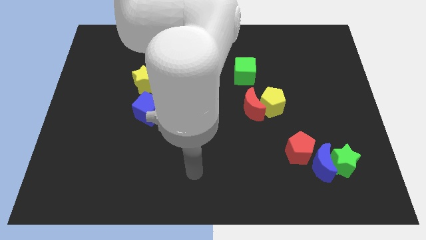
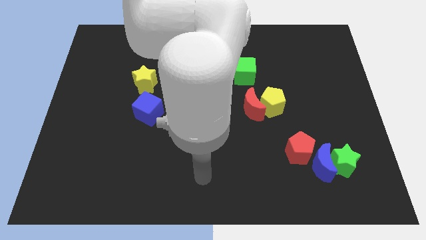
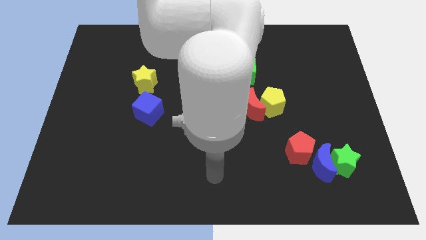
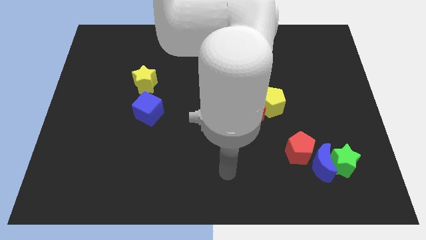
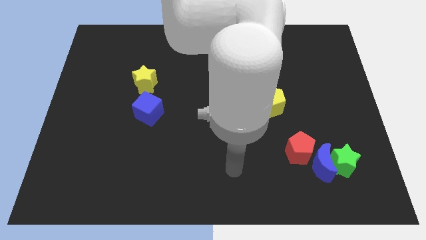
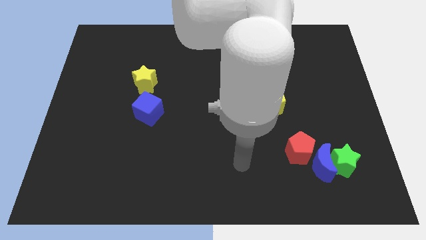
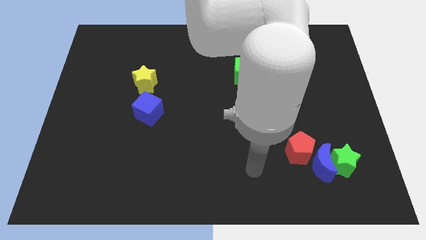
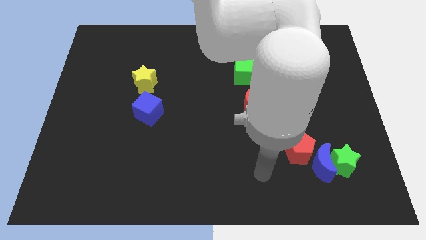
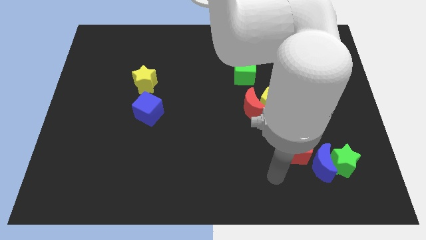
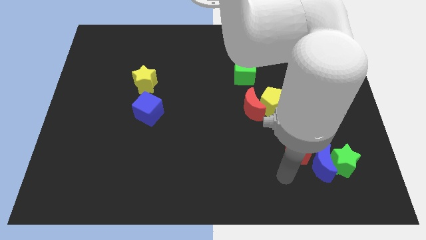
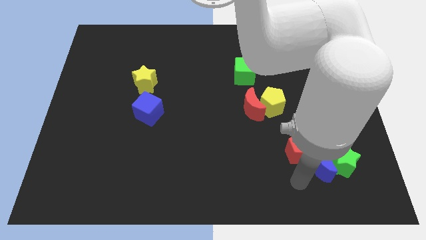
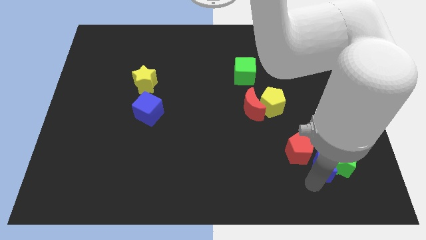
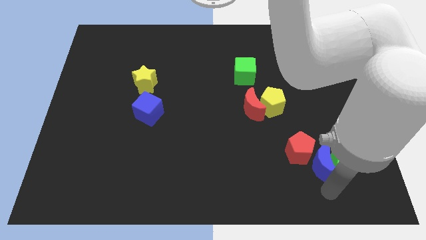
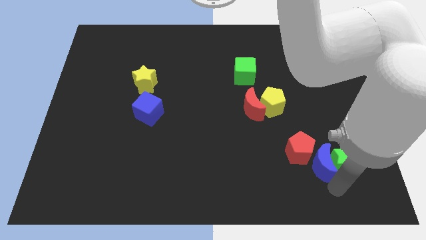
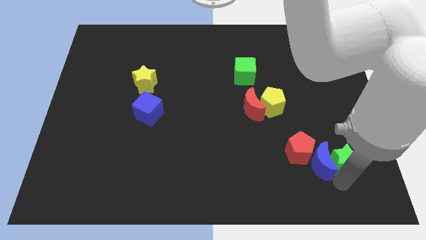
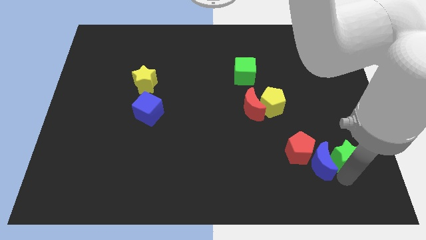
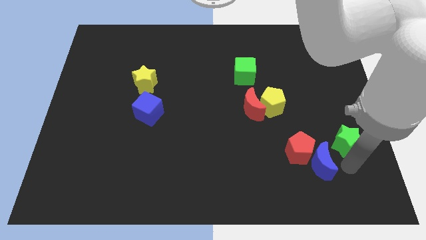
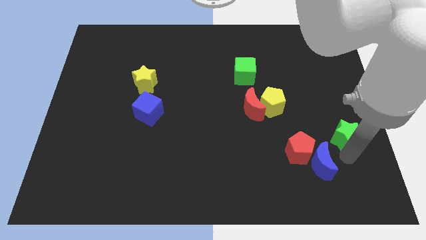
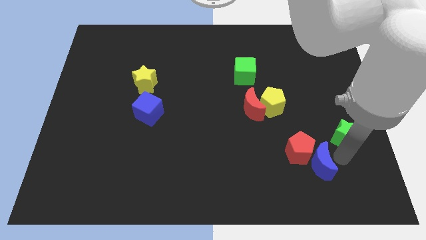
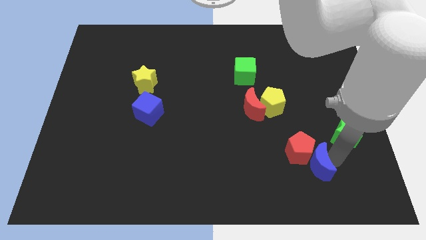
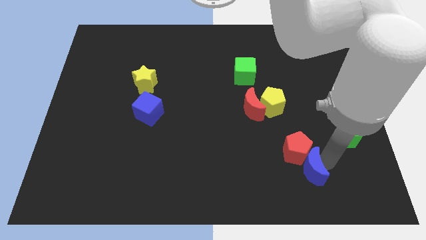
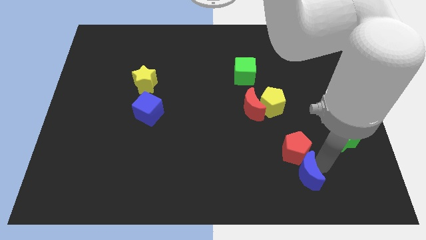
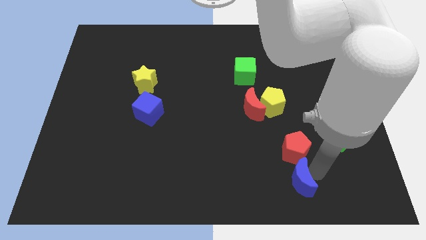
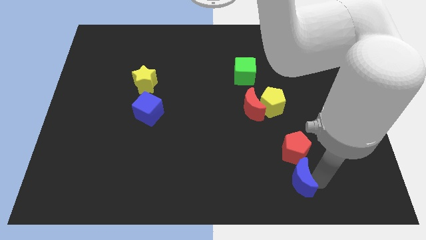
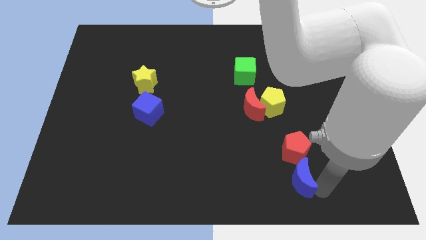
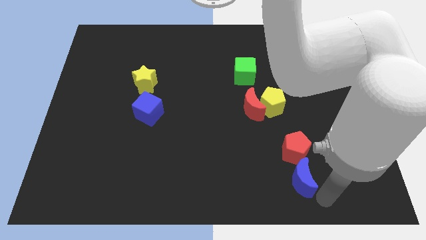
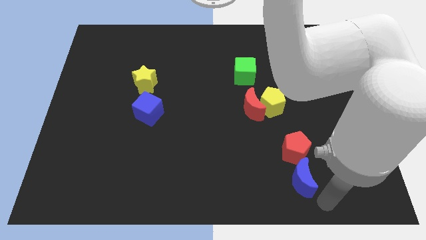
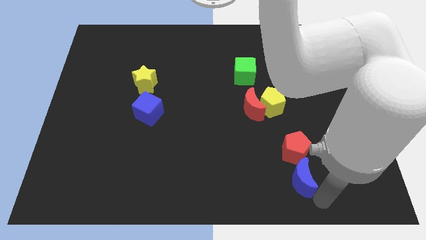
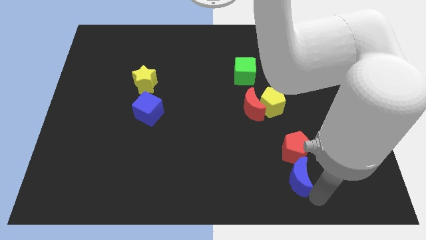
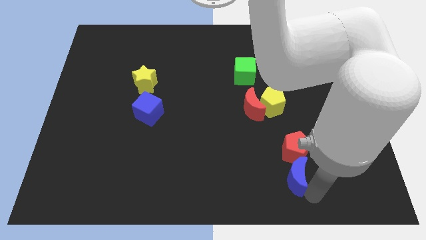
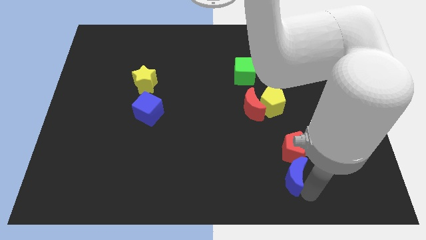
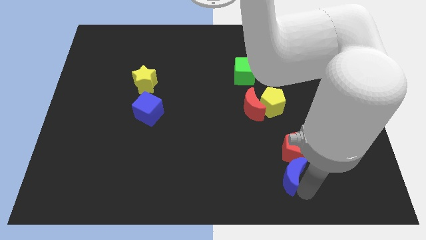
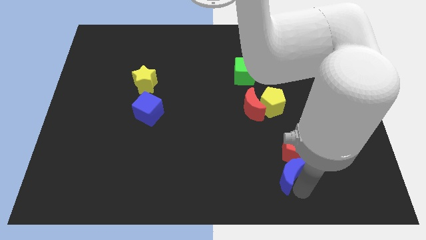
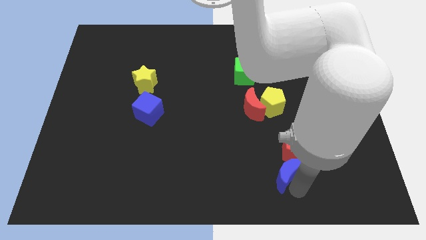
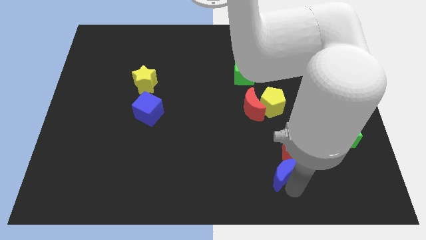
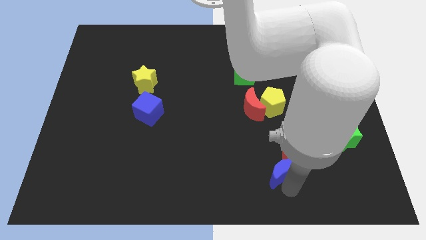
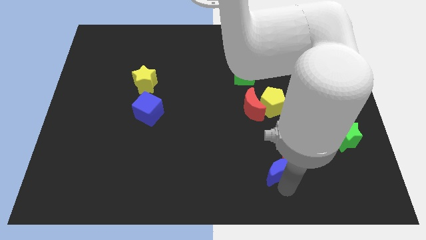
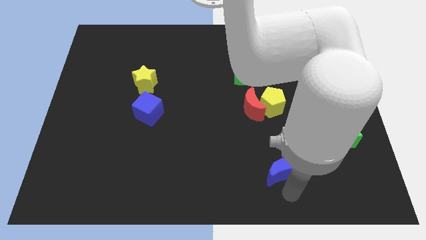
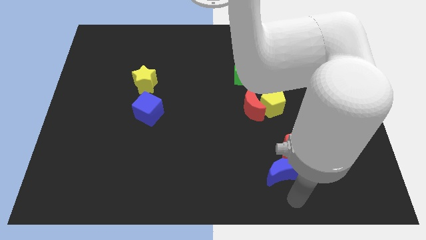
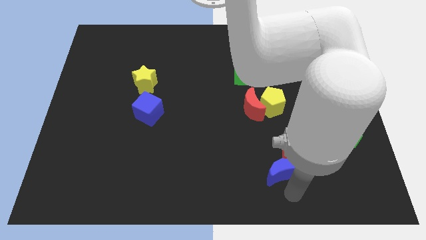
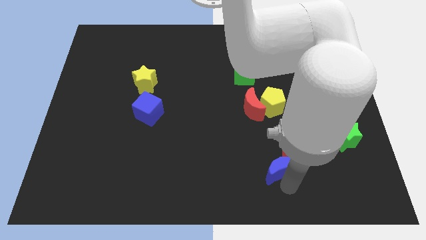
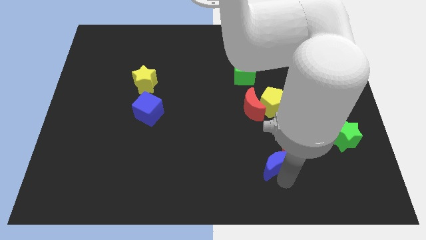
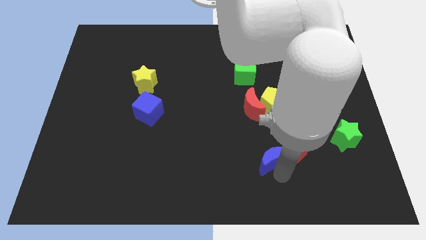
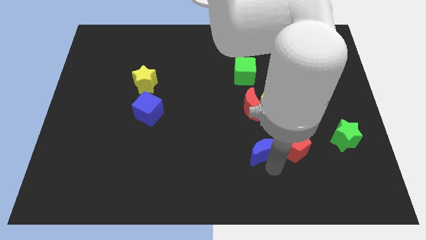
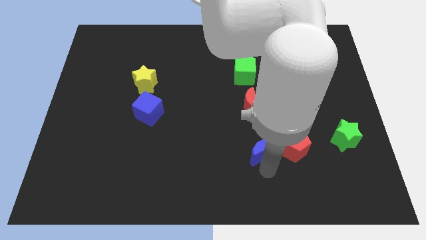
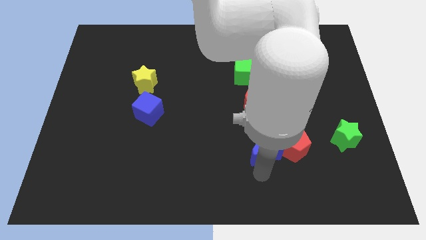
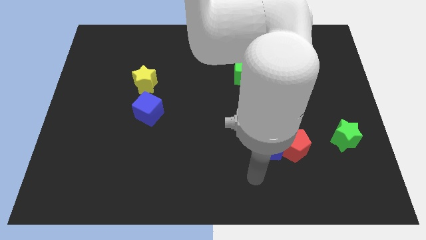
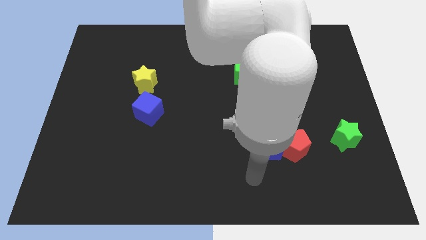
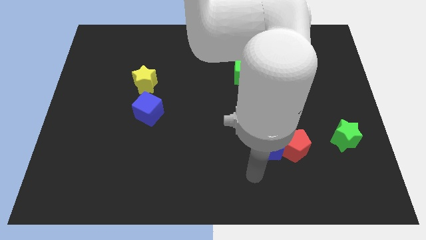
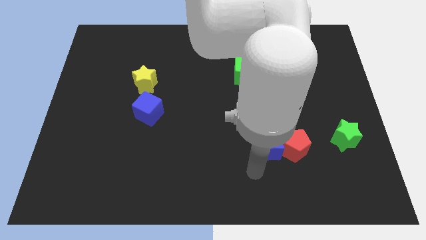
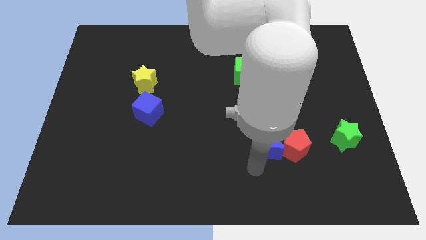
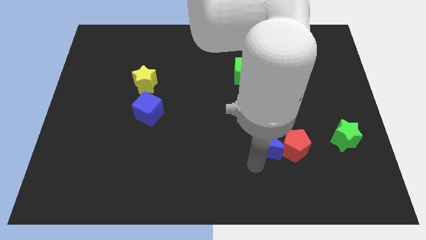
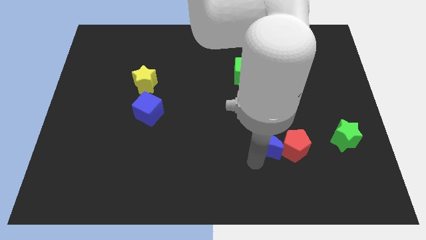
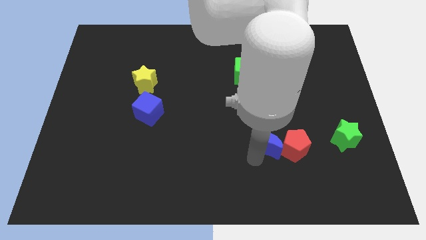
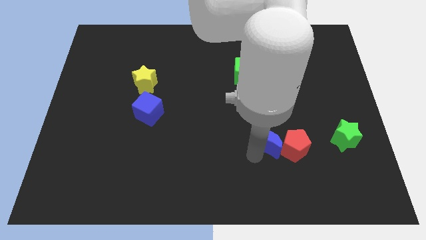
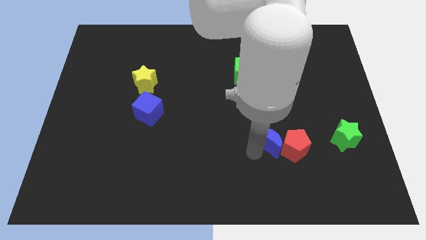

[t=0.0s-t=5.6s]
push the blue moon to the bottom right of the red moon

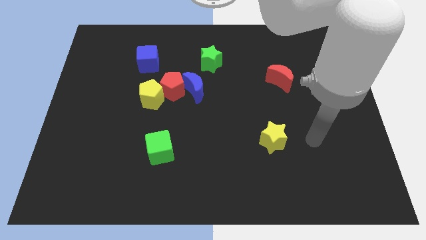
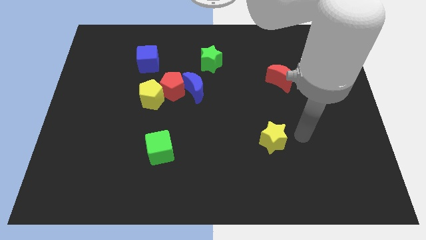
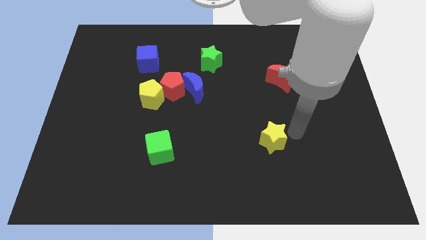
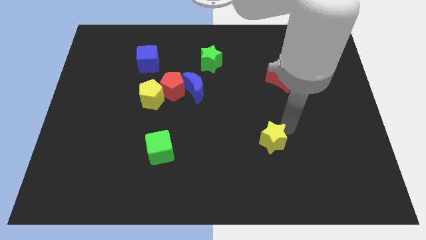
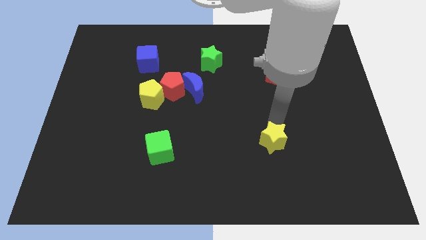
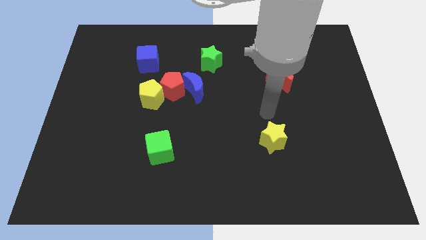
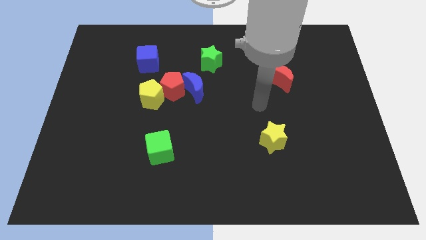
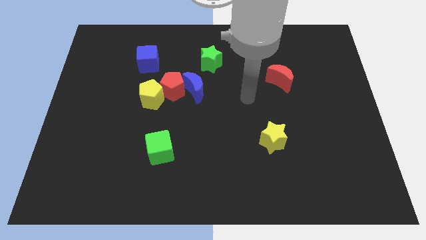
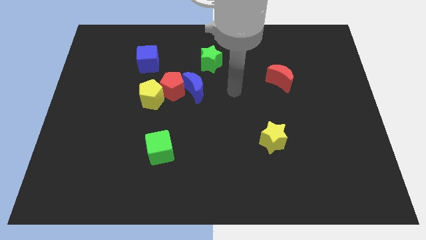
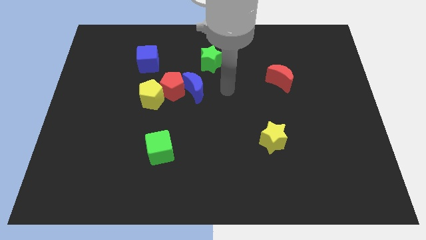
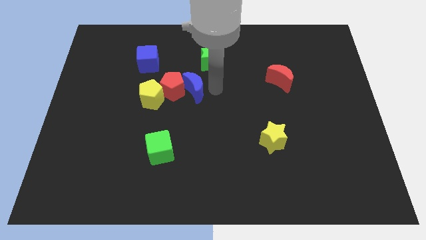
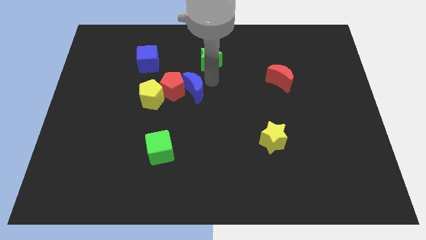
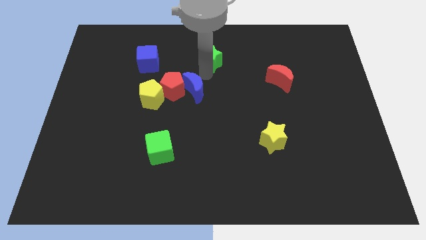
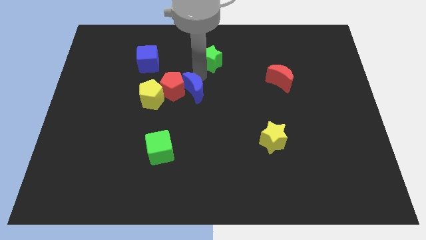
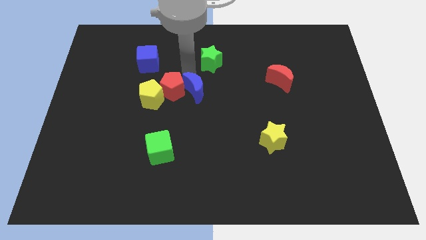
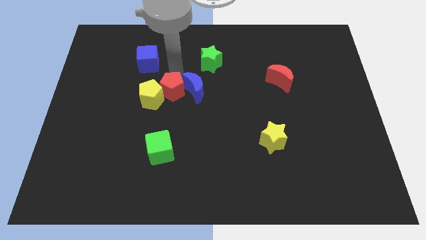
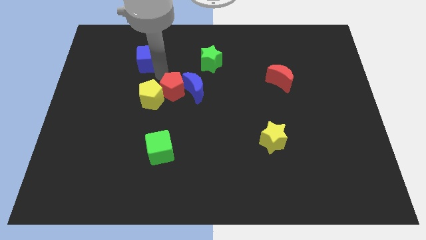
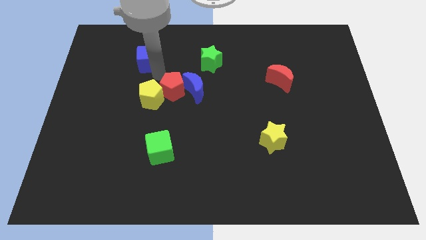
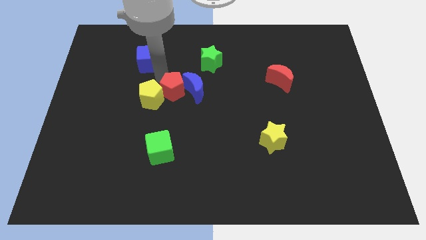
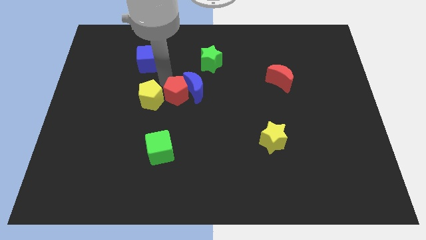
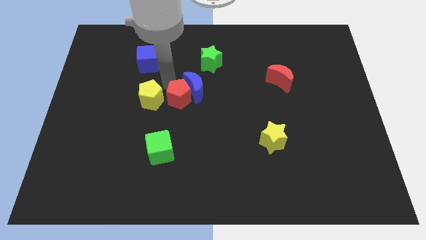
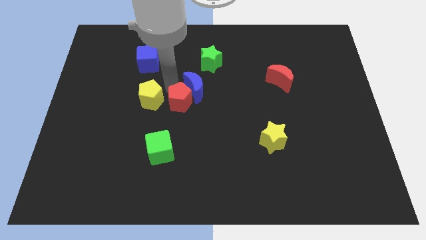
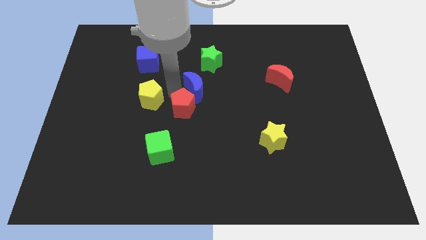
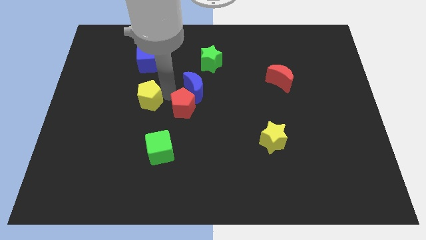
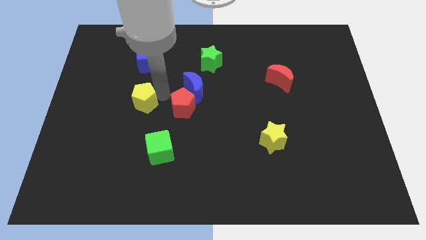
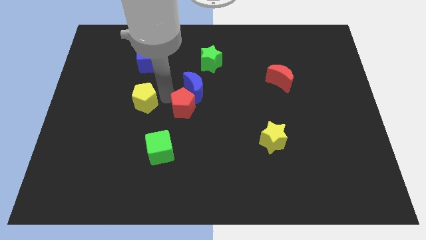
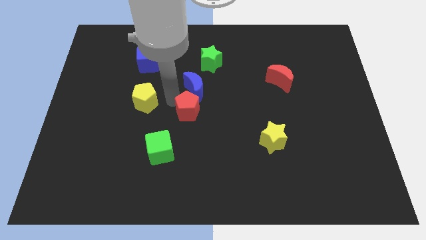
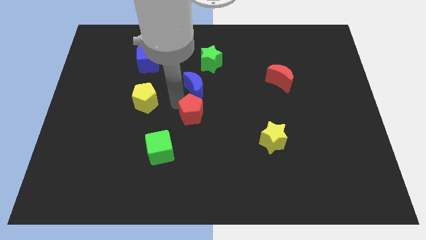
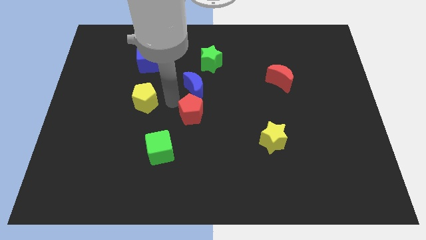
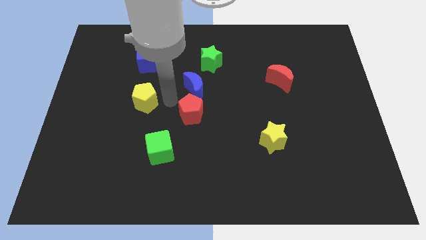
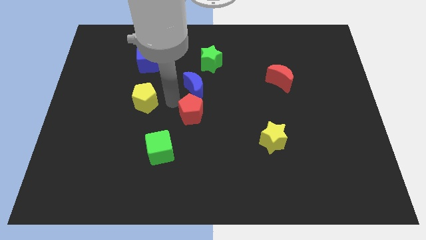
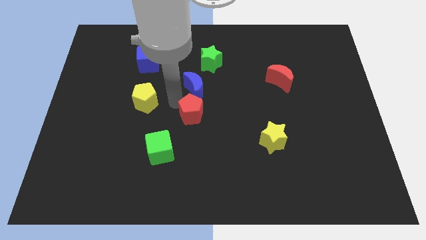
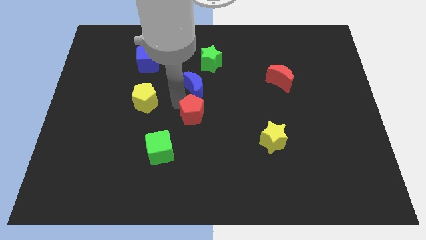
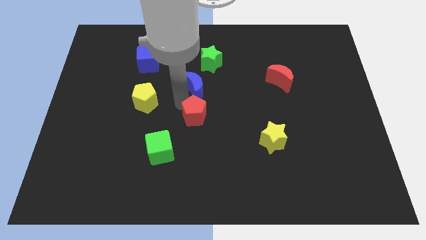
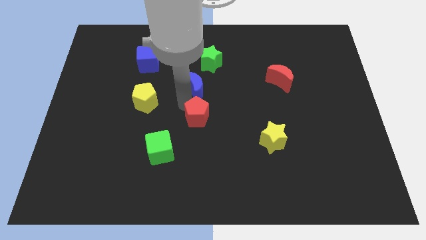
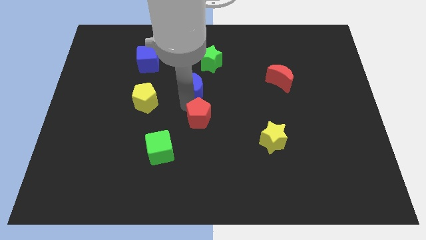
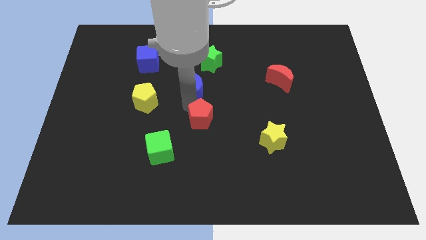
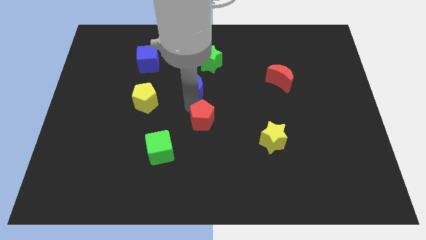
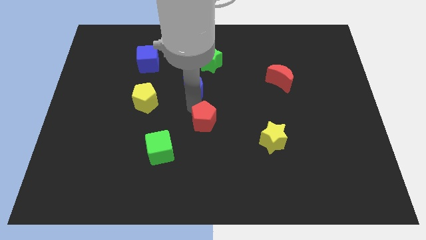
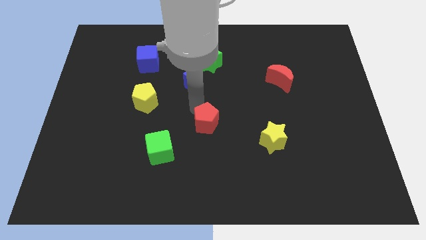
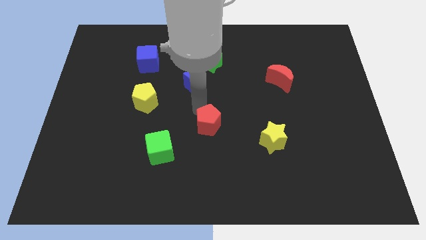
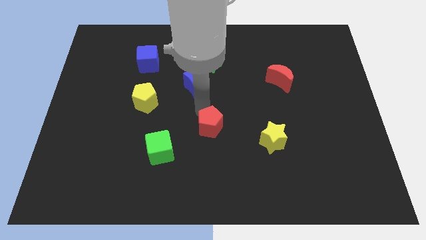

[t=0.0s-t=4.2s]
put the red pentagon to the left of the yellow star
